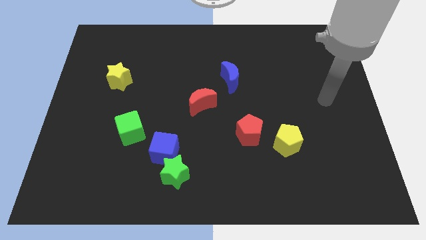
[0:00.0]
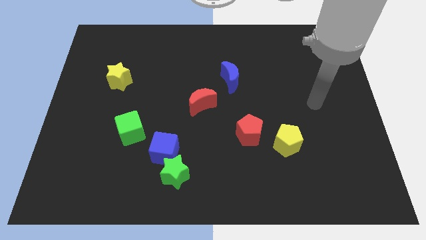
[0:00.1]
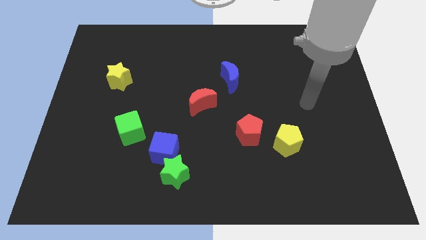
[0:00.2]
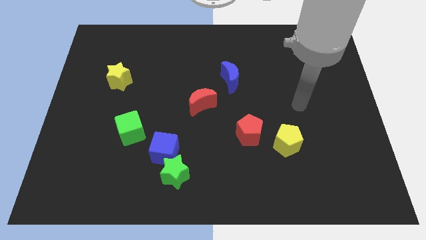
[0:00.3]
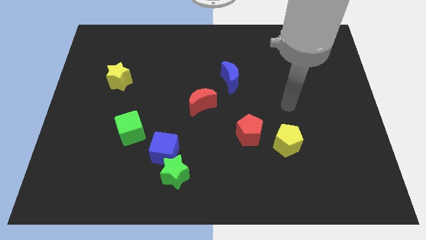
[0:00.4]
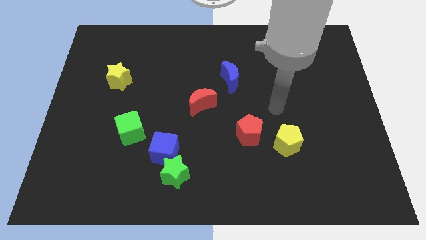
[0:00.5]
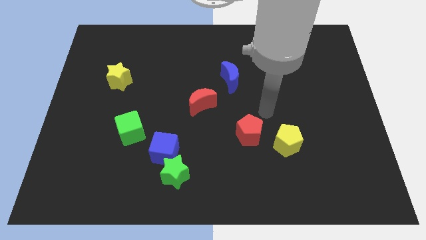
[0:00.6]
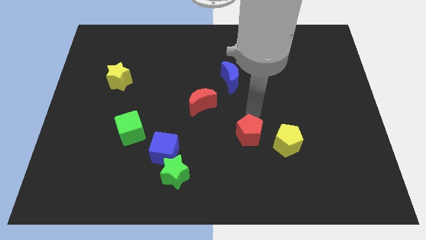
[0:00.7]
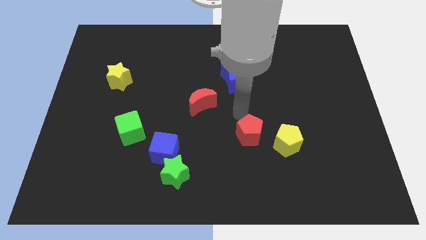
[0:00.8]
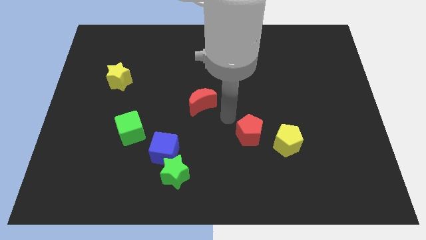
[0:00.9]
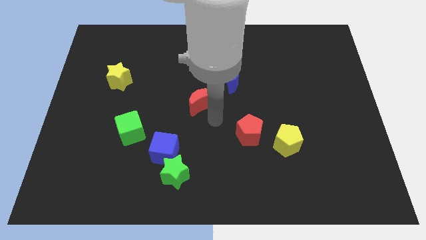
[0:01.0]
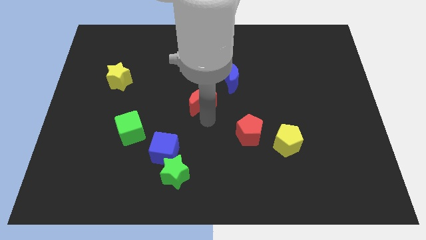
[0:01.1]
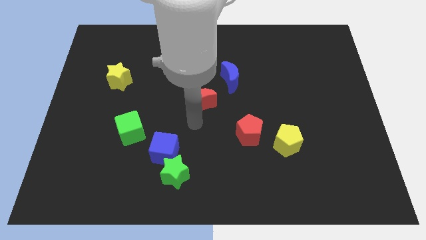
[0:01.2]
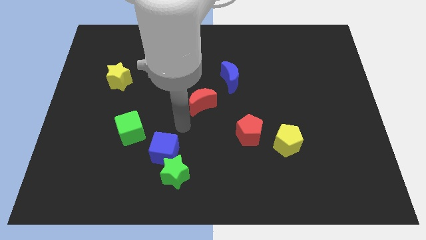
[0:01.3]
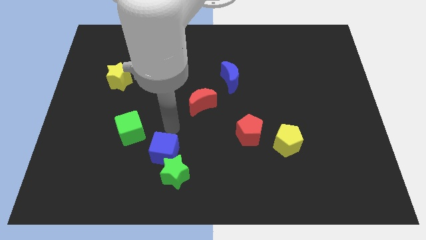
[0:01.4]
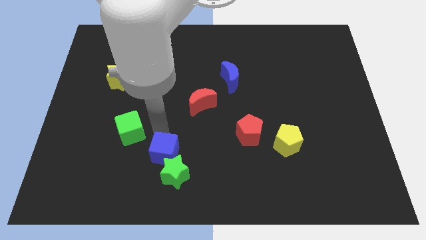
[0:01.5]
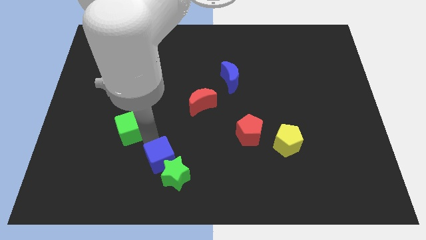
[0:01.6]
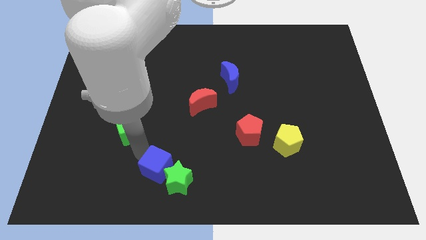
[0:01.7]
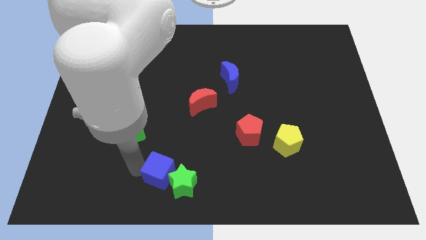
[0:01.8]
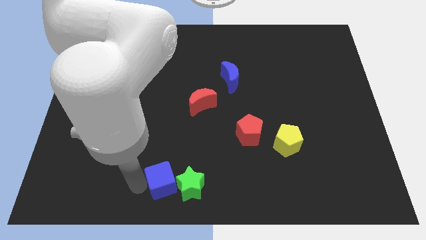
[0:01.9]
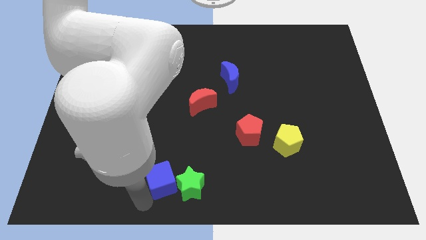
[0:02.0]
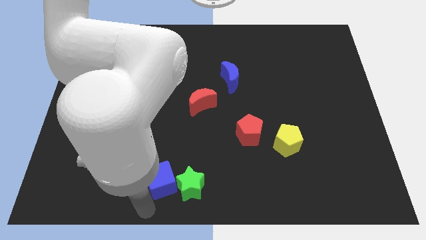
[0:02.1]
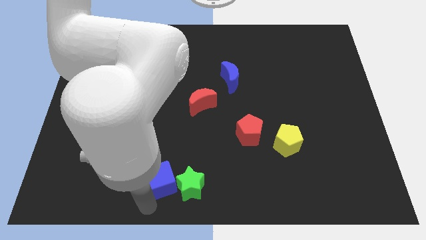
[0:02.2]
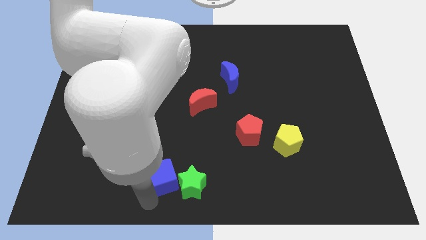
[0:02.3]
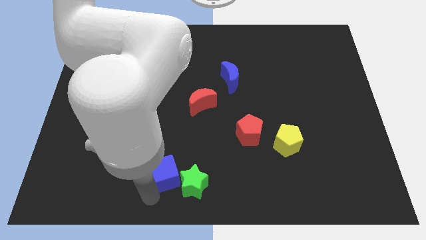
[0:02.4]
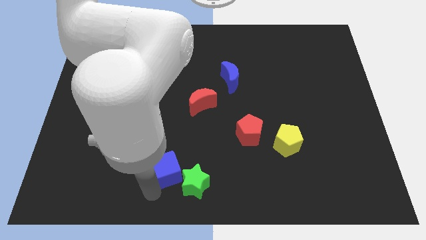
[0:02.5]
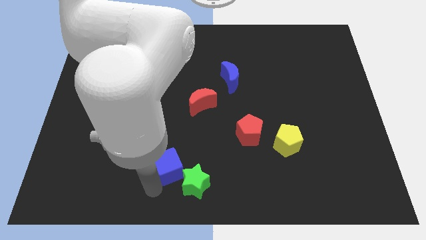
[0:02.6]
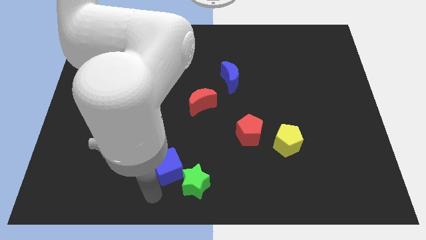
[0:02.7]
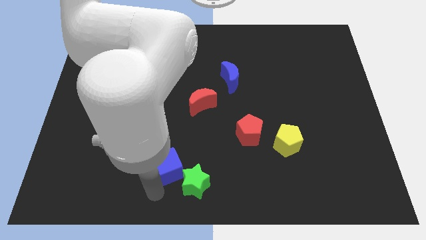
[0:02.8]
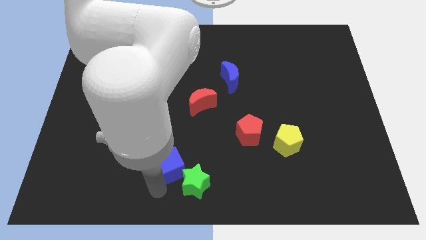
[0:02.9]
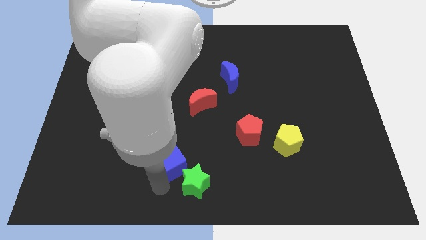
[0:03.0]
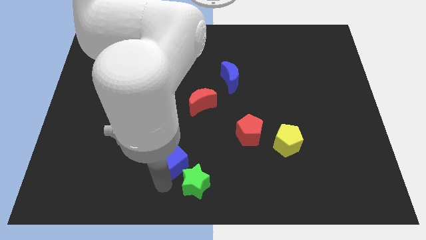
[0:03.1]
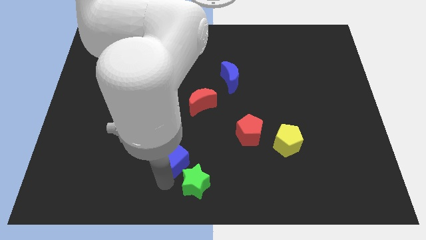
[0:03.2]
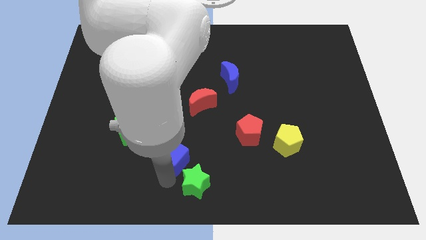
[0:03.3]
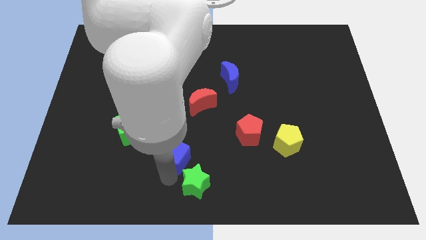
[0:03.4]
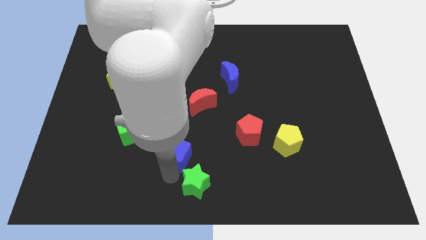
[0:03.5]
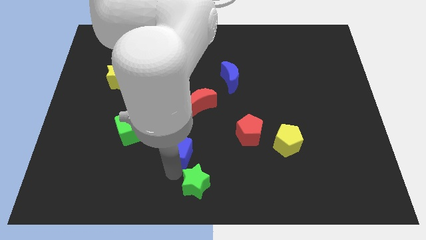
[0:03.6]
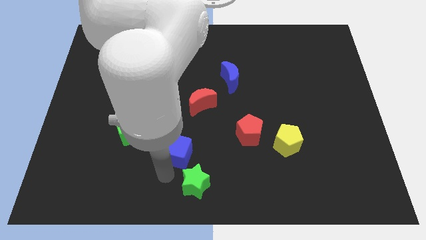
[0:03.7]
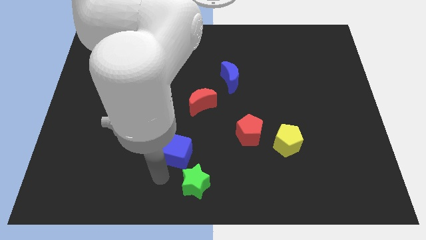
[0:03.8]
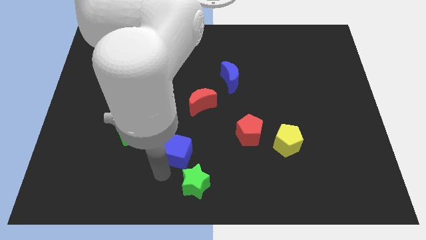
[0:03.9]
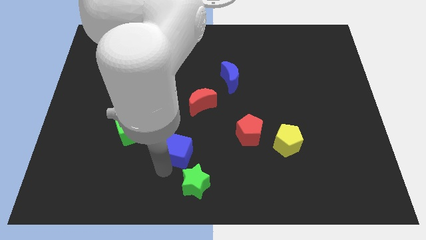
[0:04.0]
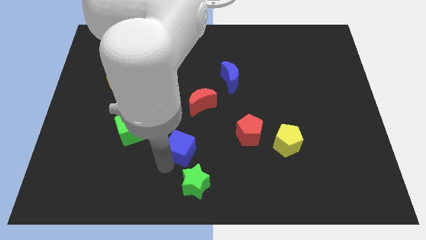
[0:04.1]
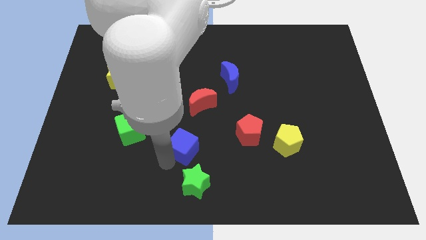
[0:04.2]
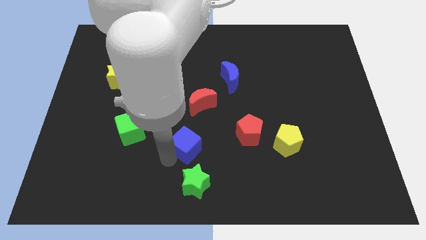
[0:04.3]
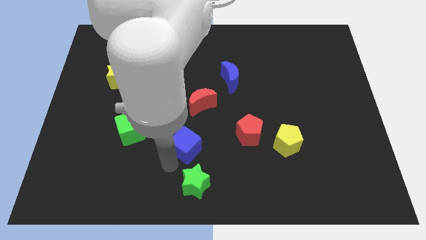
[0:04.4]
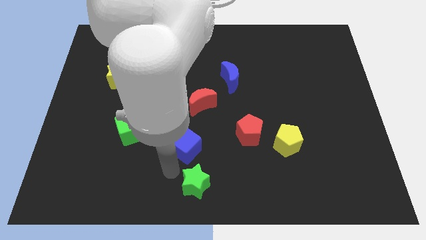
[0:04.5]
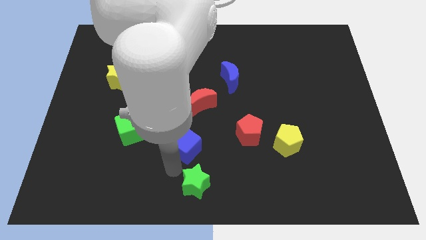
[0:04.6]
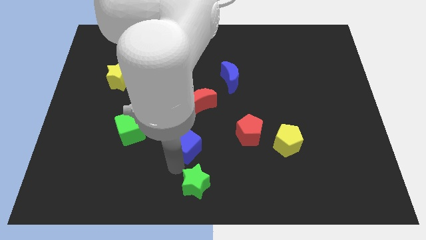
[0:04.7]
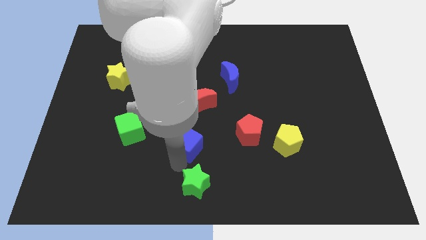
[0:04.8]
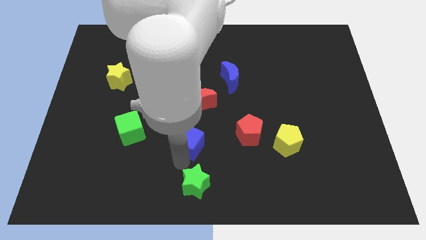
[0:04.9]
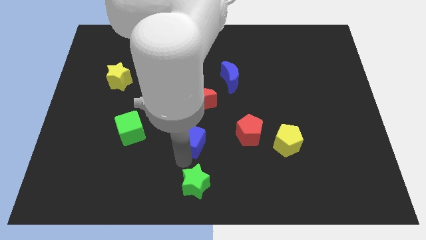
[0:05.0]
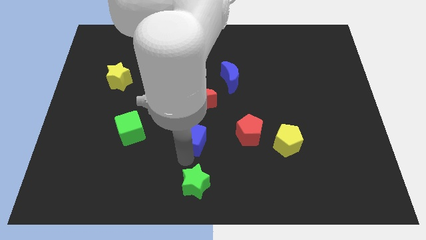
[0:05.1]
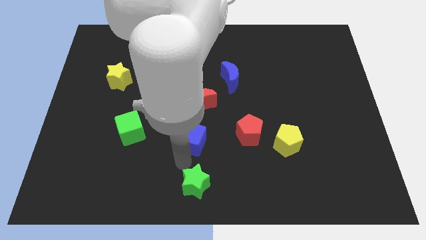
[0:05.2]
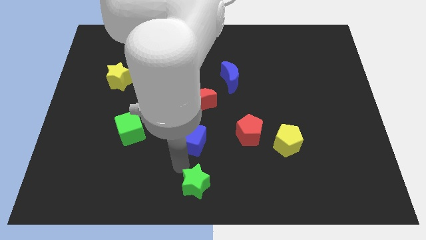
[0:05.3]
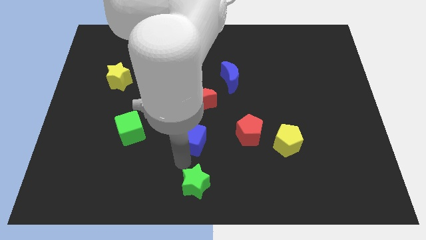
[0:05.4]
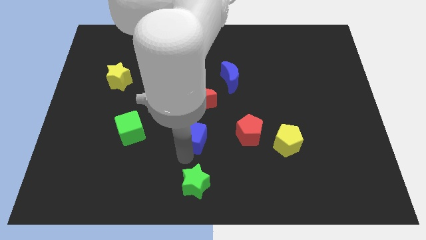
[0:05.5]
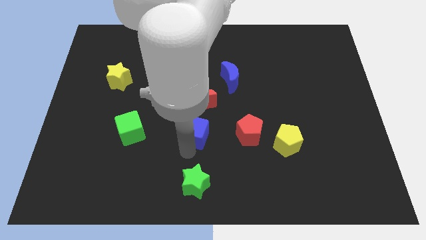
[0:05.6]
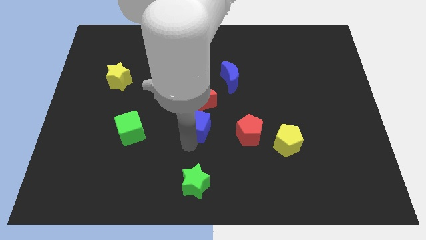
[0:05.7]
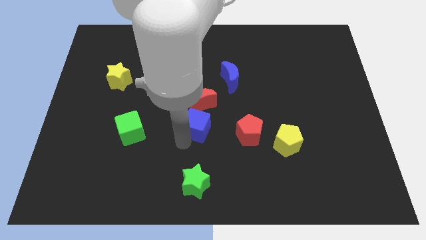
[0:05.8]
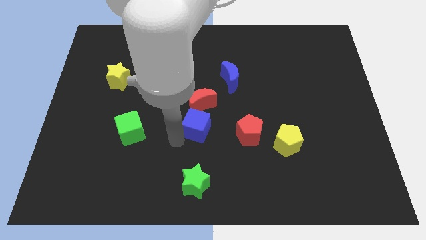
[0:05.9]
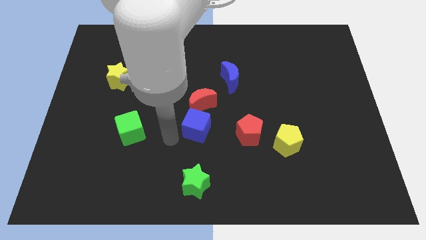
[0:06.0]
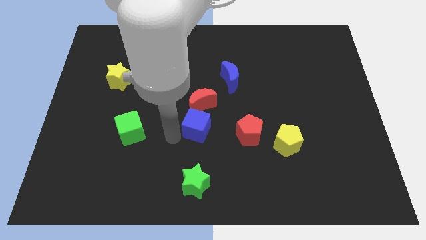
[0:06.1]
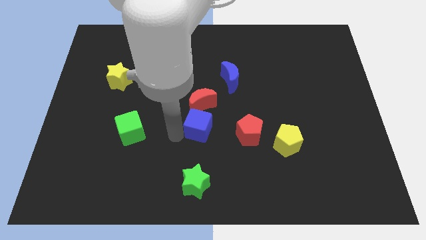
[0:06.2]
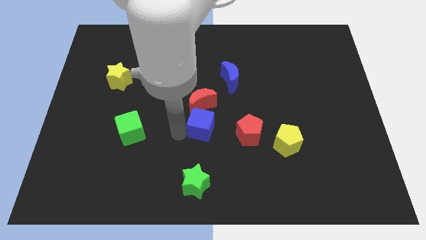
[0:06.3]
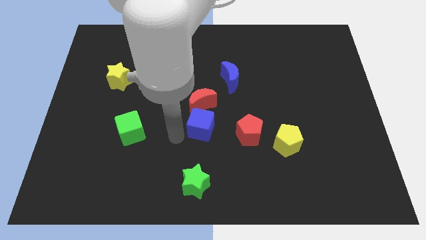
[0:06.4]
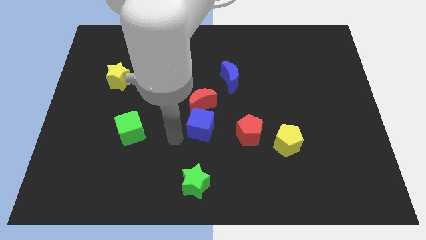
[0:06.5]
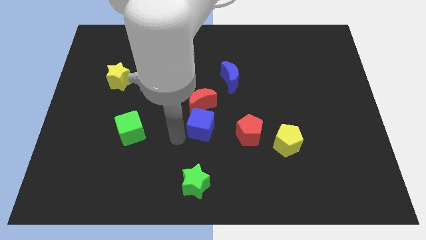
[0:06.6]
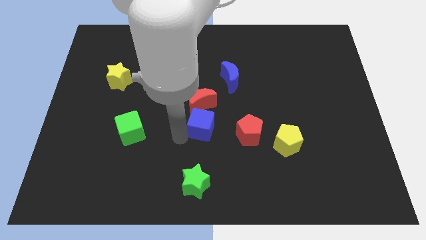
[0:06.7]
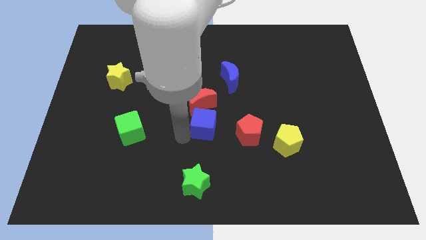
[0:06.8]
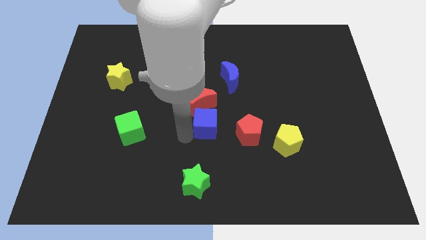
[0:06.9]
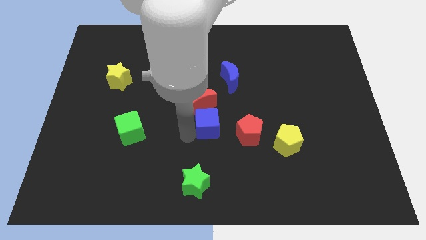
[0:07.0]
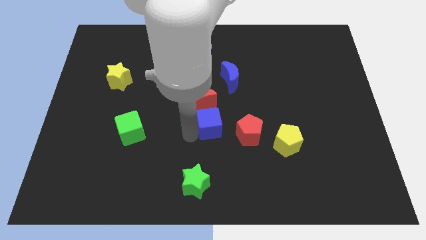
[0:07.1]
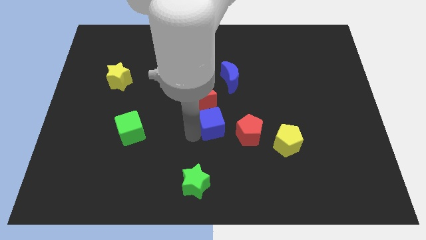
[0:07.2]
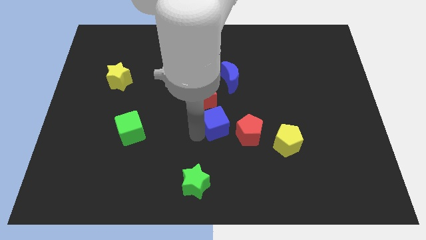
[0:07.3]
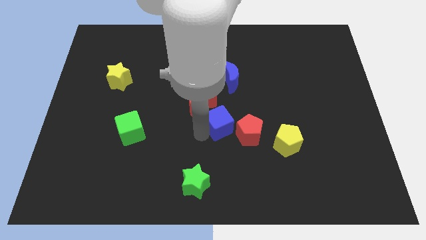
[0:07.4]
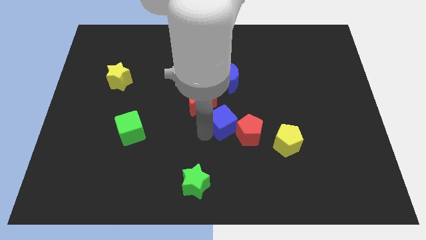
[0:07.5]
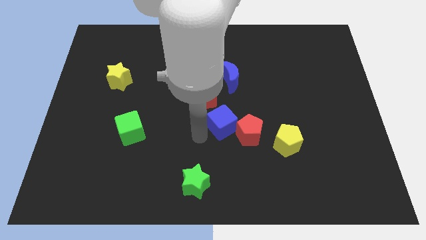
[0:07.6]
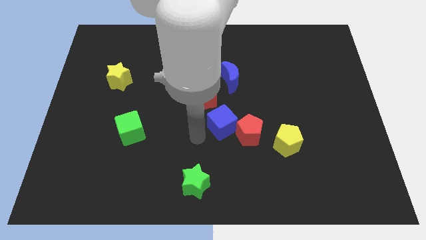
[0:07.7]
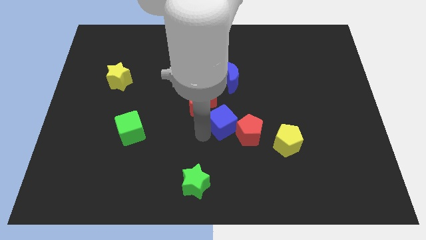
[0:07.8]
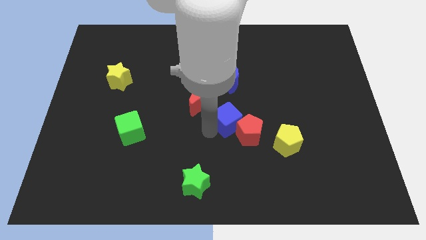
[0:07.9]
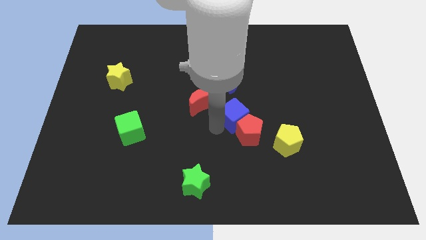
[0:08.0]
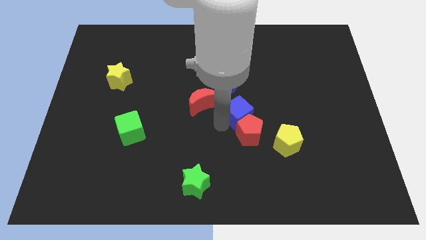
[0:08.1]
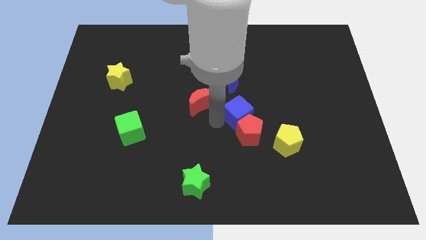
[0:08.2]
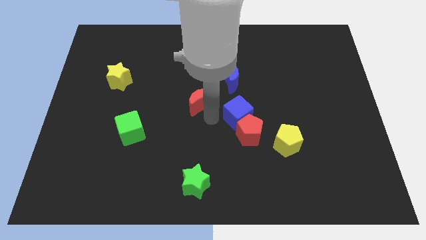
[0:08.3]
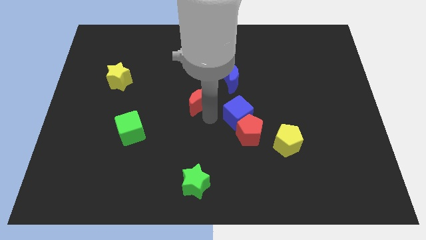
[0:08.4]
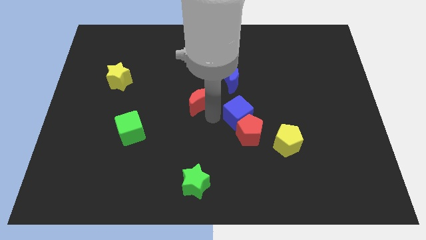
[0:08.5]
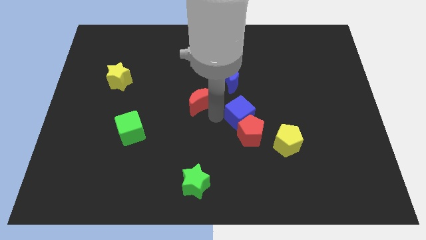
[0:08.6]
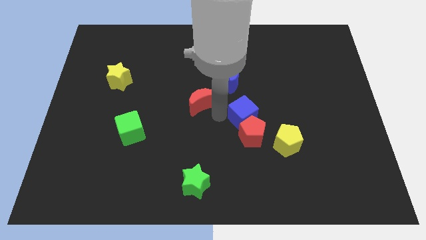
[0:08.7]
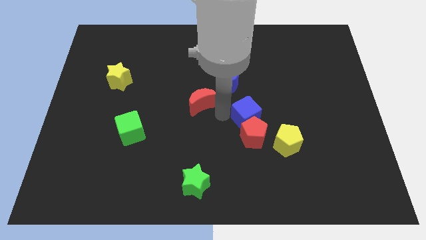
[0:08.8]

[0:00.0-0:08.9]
slide the blue cube to the top right side of the red pentagon
